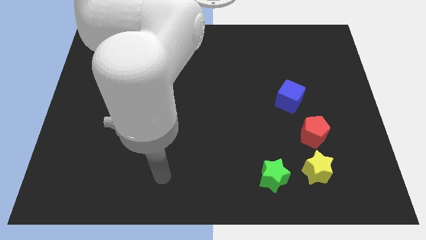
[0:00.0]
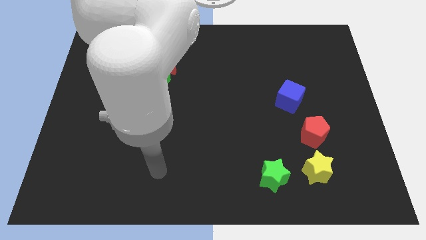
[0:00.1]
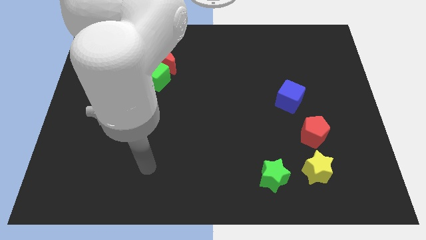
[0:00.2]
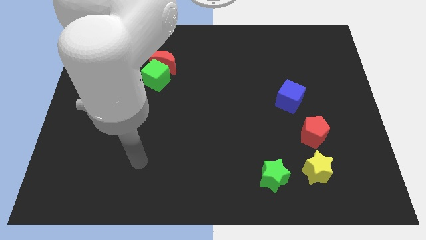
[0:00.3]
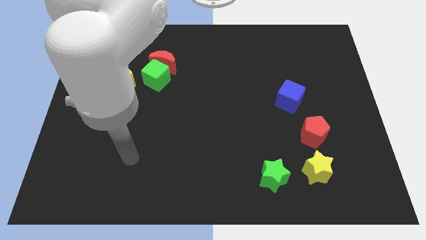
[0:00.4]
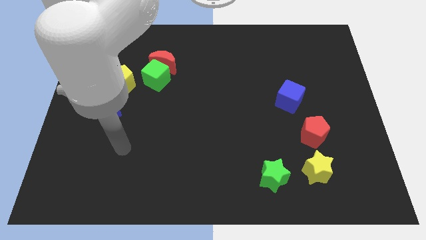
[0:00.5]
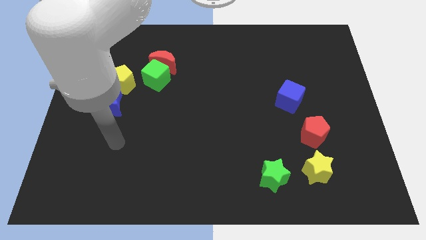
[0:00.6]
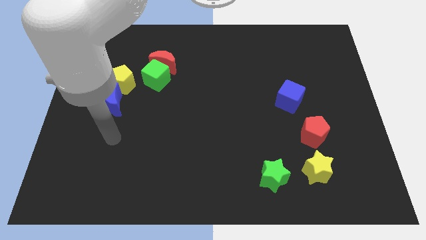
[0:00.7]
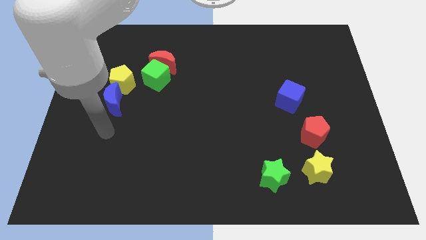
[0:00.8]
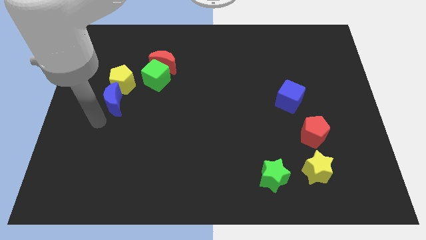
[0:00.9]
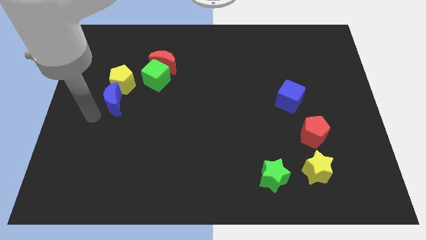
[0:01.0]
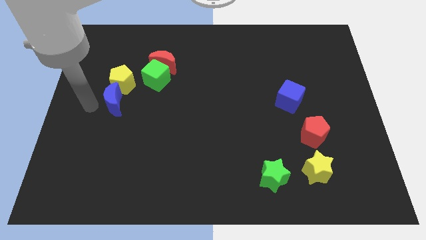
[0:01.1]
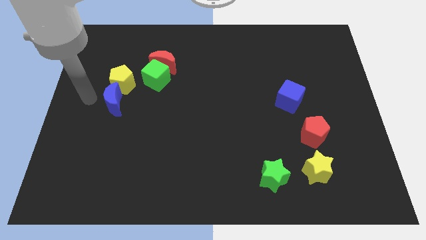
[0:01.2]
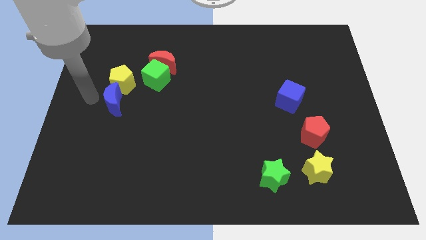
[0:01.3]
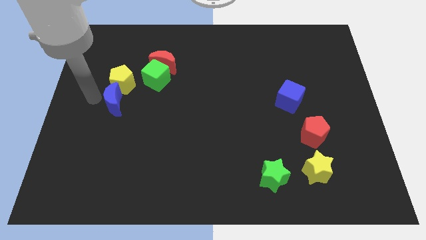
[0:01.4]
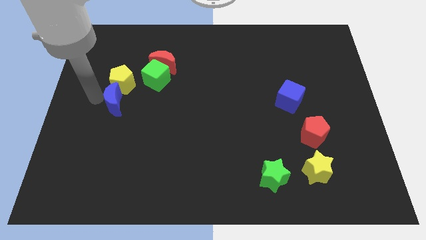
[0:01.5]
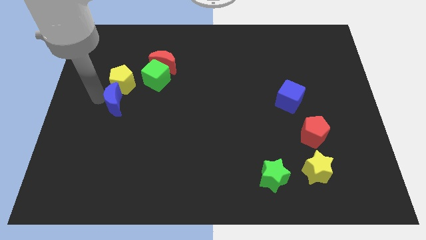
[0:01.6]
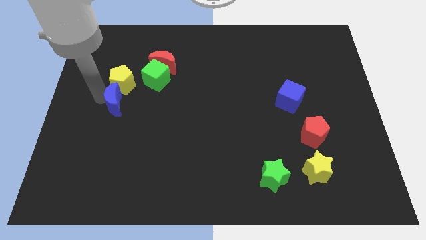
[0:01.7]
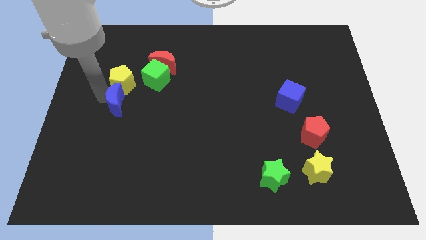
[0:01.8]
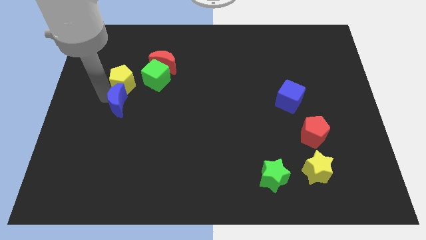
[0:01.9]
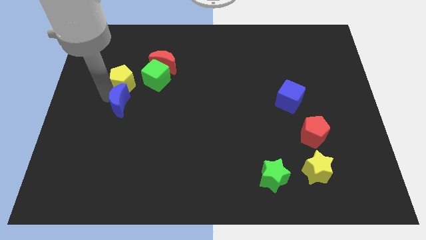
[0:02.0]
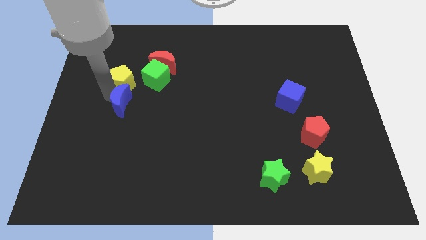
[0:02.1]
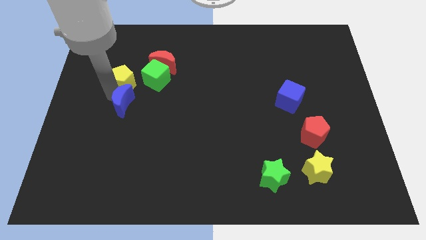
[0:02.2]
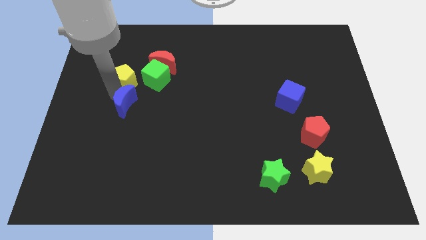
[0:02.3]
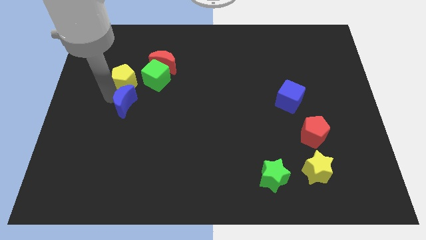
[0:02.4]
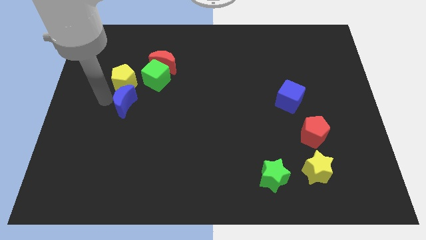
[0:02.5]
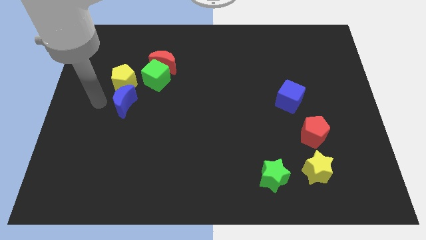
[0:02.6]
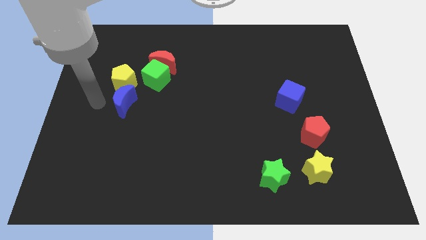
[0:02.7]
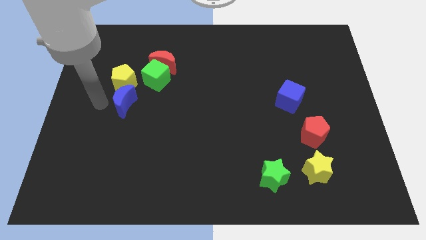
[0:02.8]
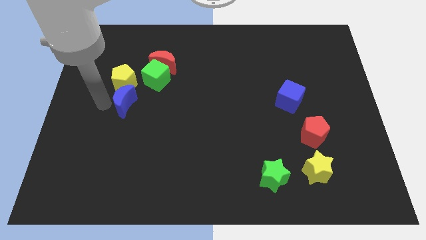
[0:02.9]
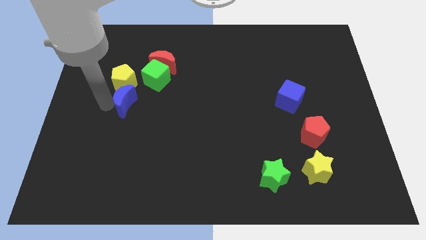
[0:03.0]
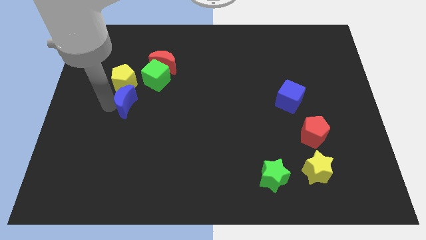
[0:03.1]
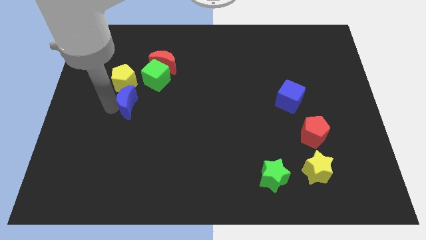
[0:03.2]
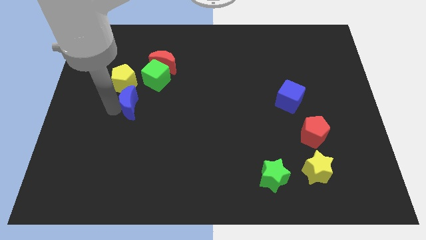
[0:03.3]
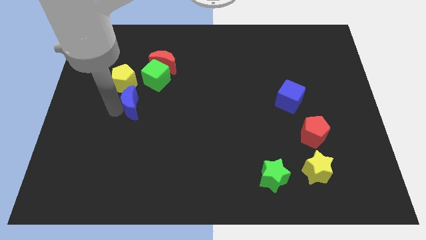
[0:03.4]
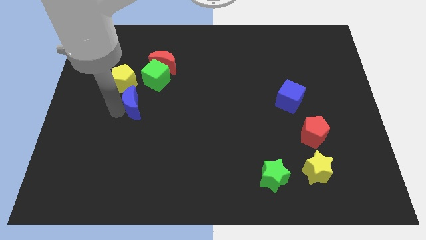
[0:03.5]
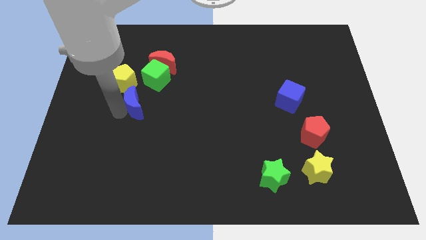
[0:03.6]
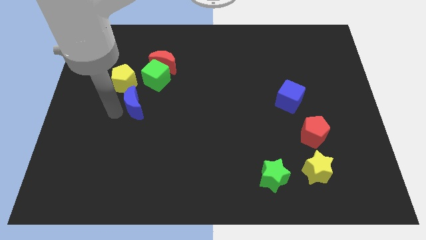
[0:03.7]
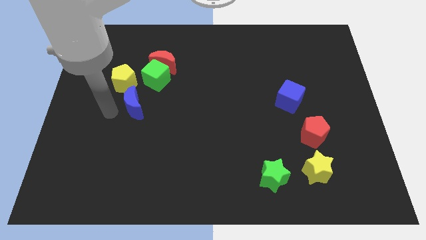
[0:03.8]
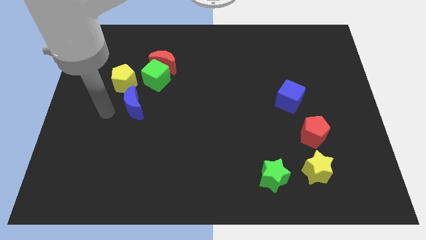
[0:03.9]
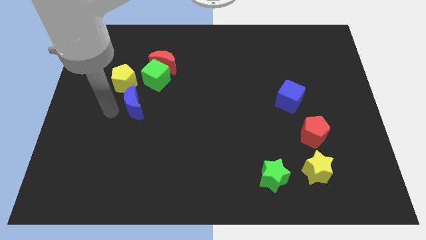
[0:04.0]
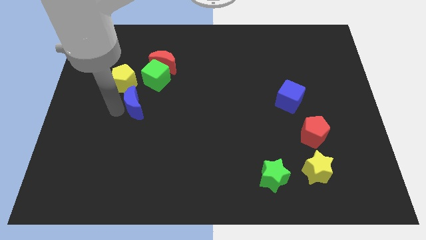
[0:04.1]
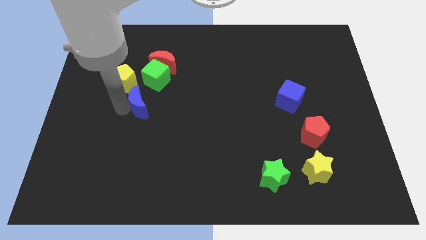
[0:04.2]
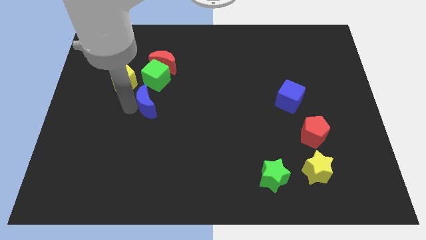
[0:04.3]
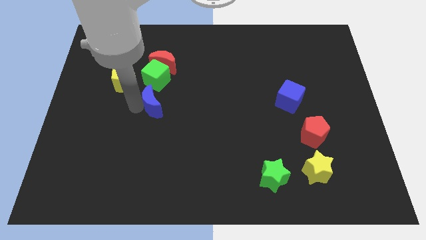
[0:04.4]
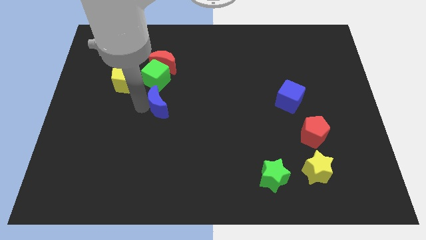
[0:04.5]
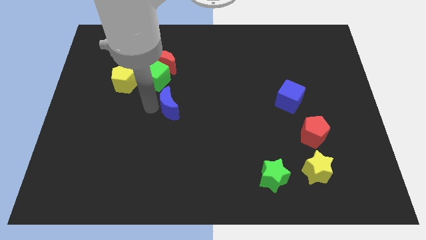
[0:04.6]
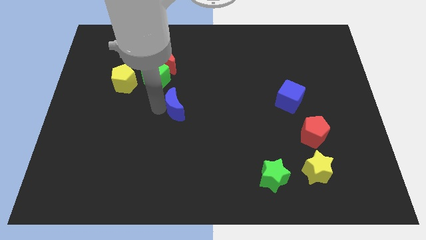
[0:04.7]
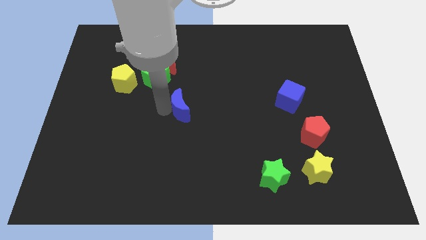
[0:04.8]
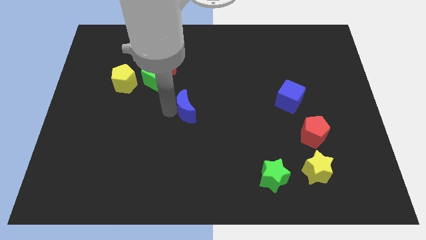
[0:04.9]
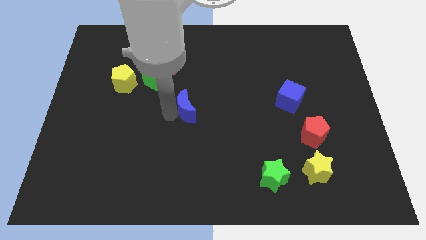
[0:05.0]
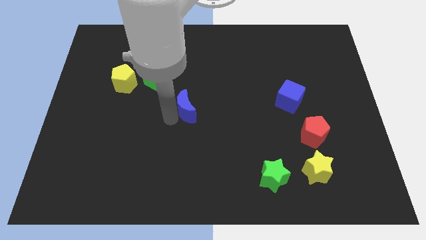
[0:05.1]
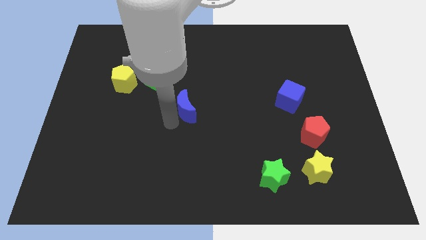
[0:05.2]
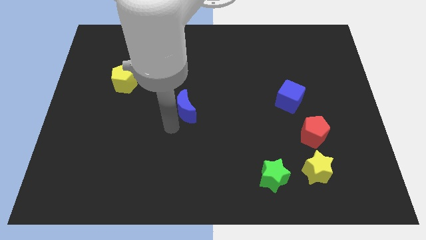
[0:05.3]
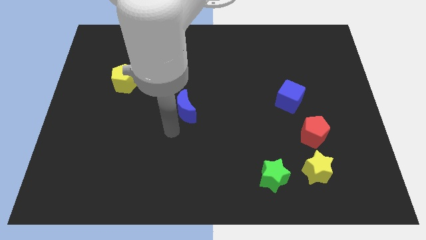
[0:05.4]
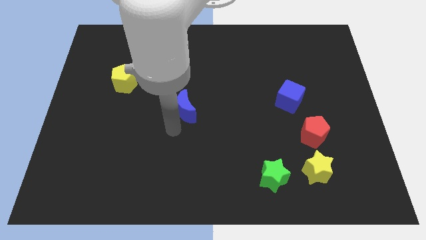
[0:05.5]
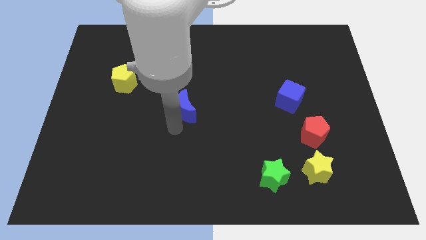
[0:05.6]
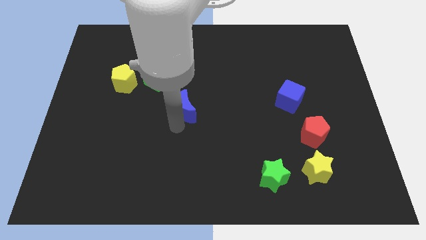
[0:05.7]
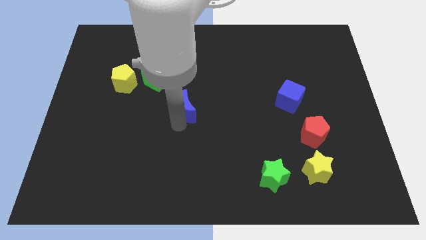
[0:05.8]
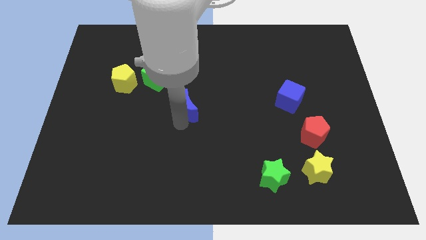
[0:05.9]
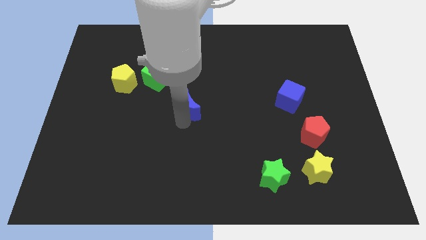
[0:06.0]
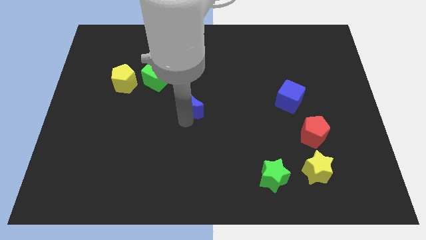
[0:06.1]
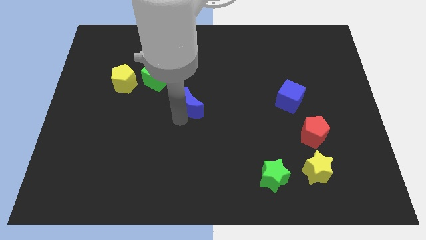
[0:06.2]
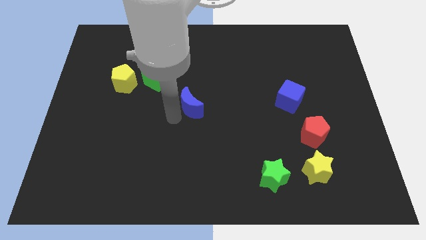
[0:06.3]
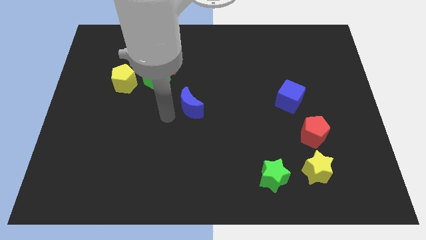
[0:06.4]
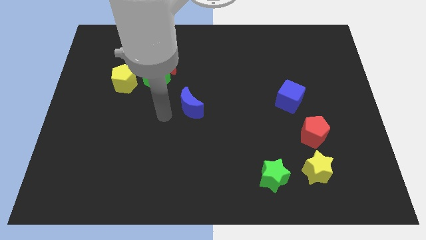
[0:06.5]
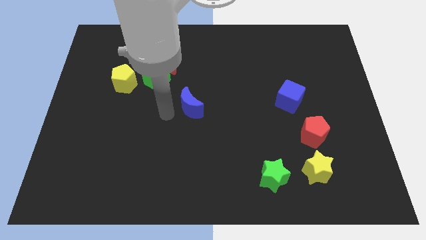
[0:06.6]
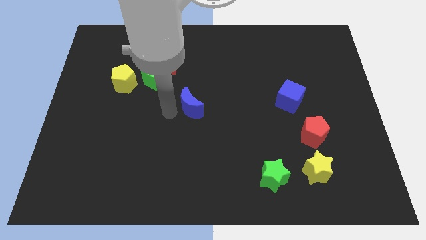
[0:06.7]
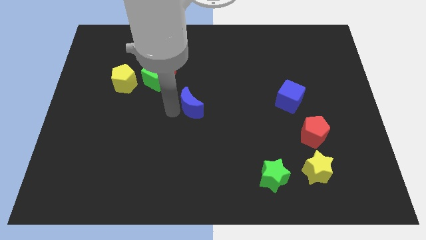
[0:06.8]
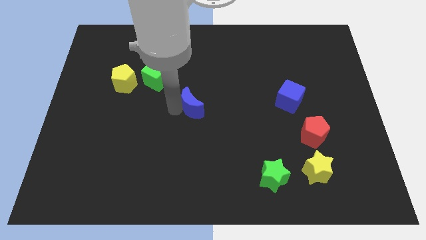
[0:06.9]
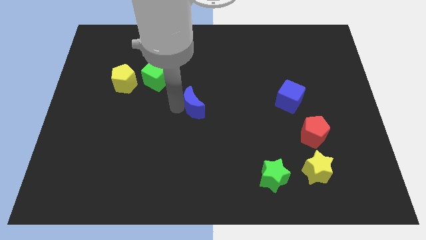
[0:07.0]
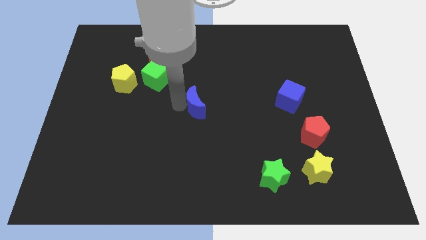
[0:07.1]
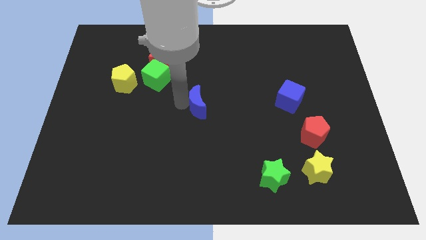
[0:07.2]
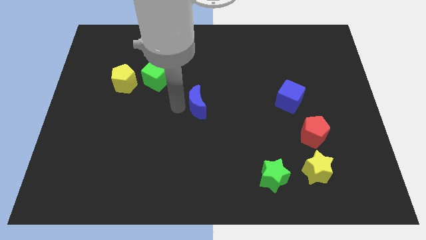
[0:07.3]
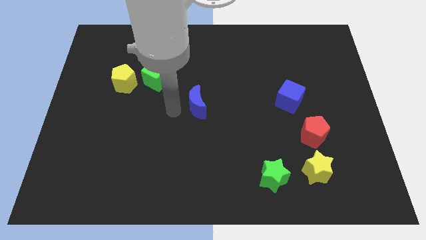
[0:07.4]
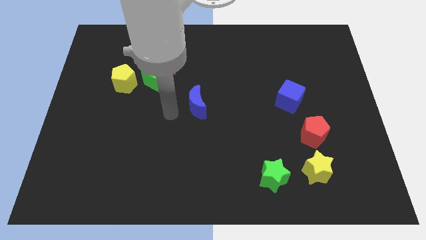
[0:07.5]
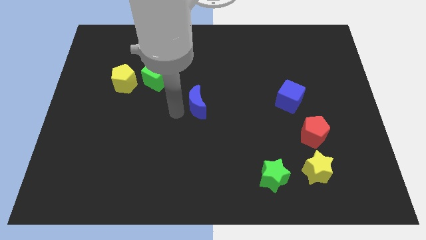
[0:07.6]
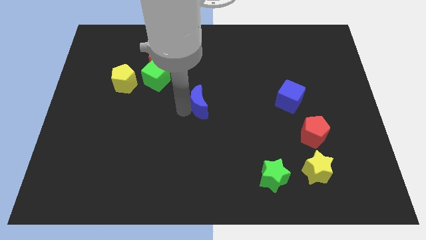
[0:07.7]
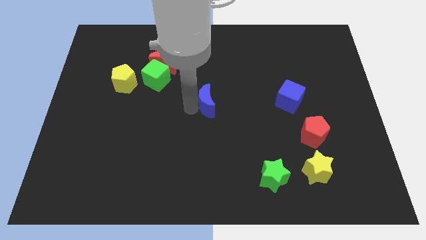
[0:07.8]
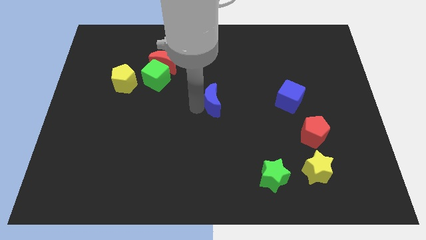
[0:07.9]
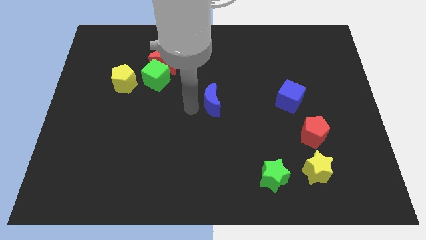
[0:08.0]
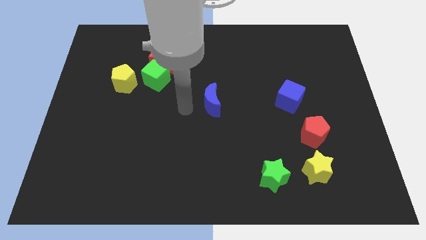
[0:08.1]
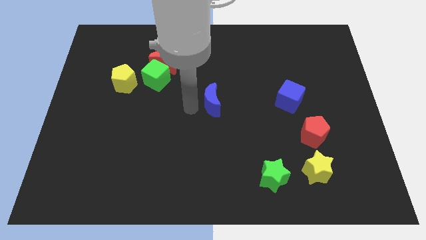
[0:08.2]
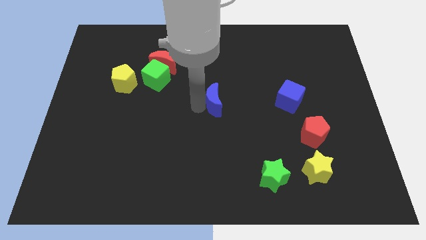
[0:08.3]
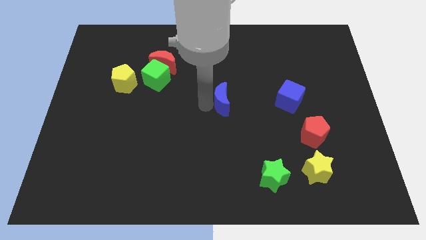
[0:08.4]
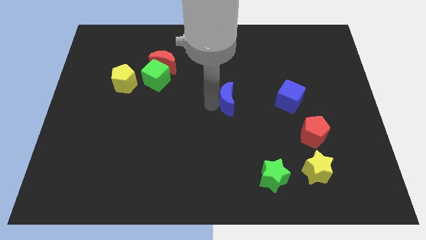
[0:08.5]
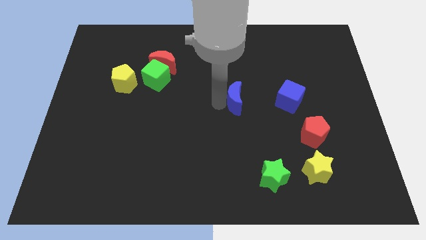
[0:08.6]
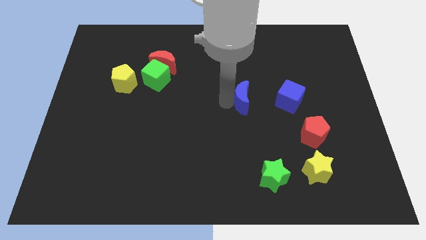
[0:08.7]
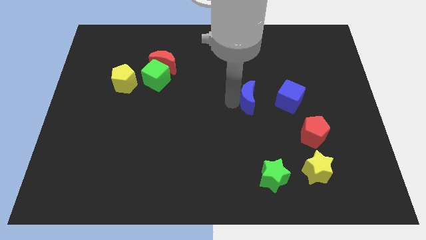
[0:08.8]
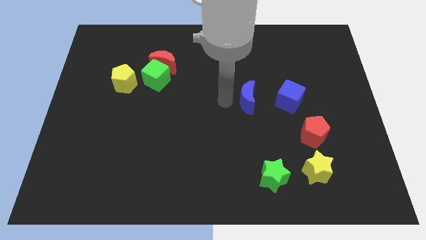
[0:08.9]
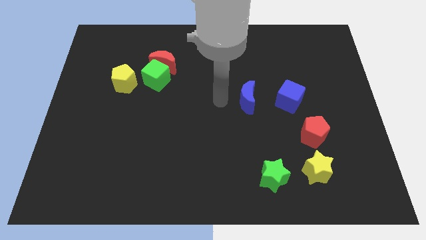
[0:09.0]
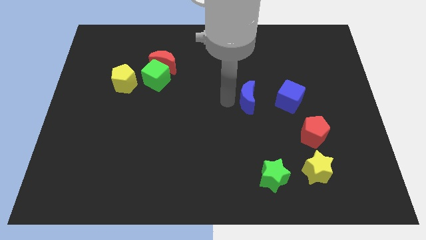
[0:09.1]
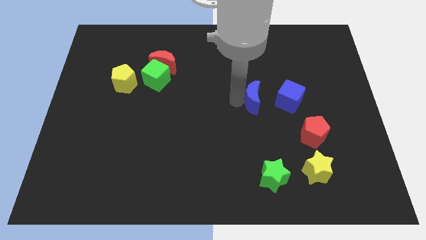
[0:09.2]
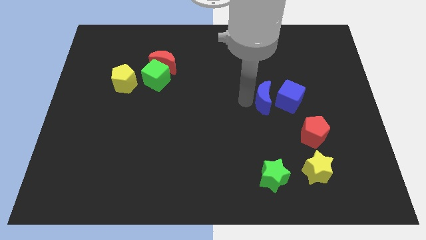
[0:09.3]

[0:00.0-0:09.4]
slide the blue moon towards the blue cube
